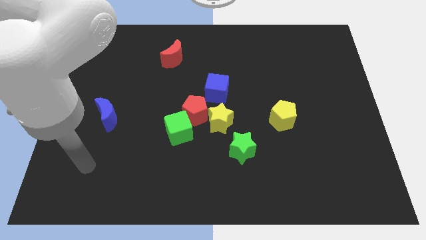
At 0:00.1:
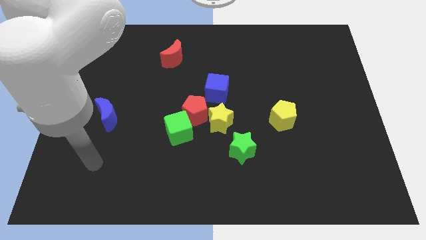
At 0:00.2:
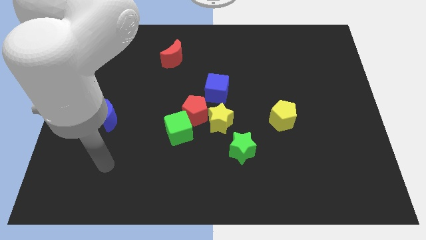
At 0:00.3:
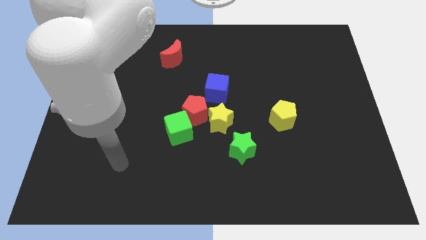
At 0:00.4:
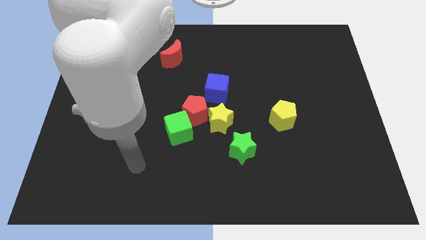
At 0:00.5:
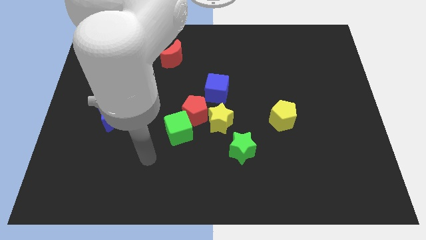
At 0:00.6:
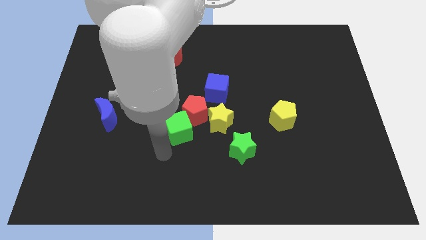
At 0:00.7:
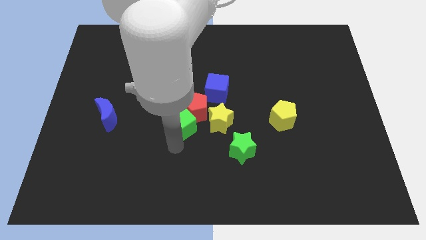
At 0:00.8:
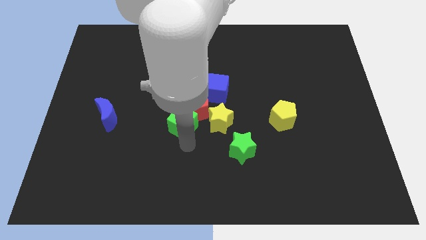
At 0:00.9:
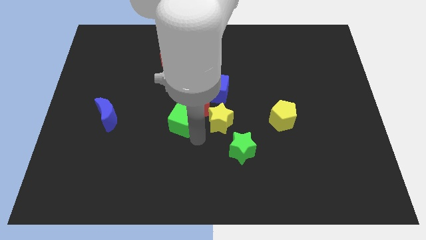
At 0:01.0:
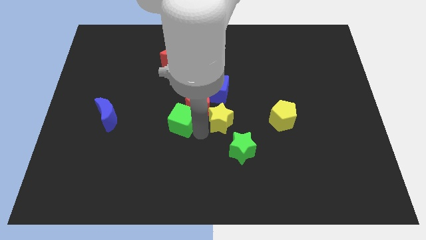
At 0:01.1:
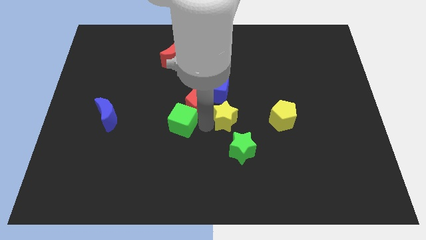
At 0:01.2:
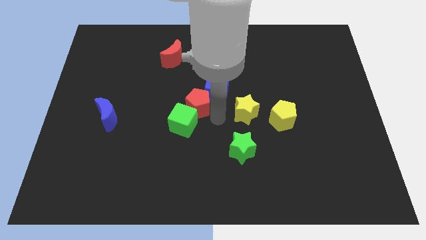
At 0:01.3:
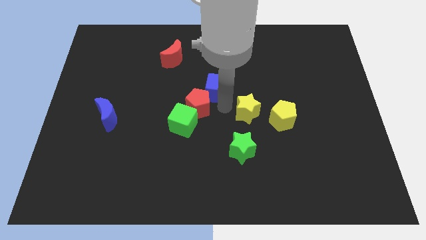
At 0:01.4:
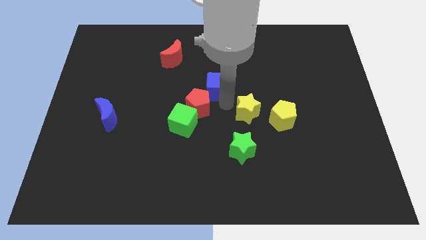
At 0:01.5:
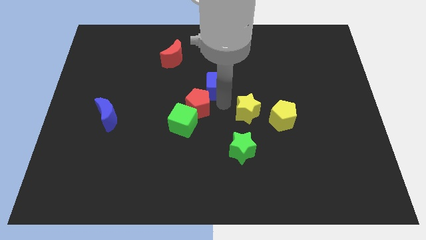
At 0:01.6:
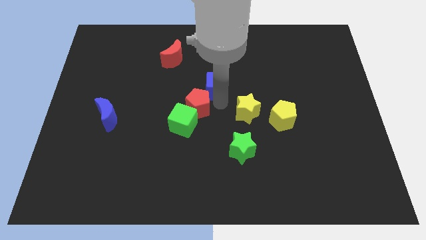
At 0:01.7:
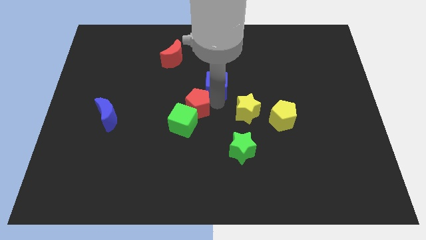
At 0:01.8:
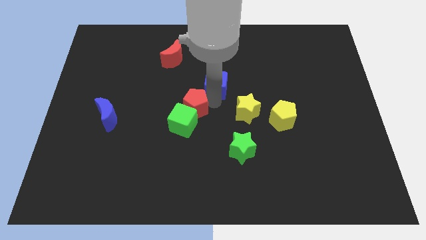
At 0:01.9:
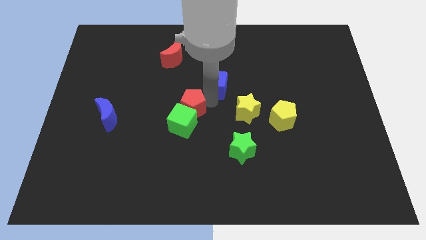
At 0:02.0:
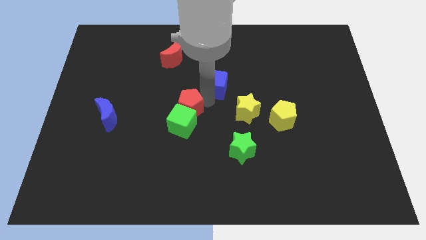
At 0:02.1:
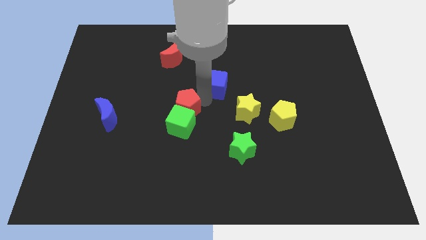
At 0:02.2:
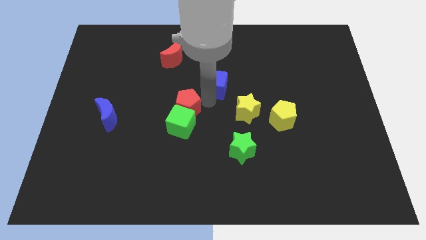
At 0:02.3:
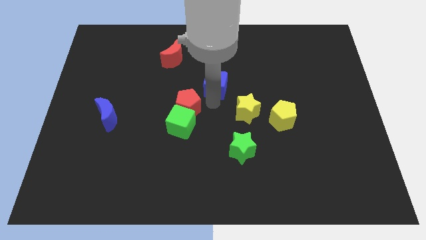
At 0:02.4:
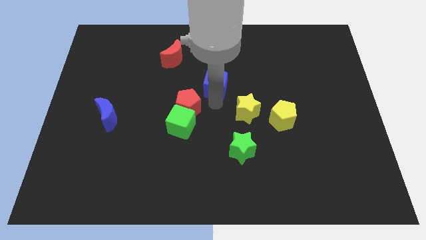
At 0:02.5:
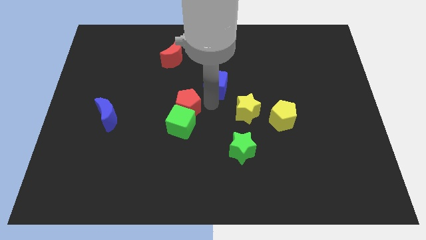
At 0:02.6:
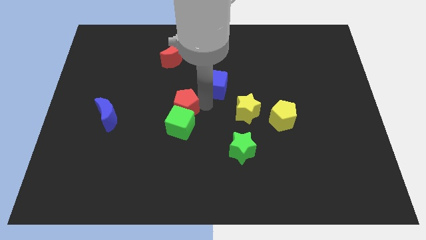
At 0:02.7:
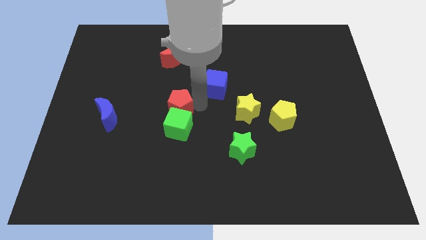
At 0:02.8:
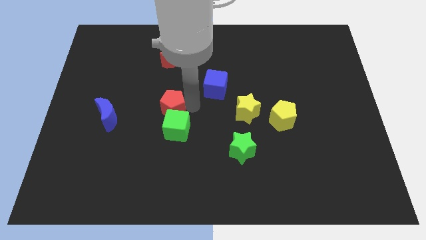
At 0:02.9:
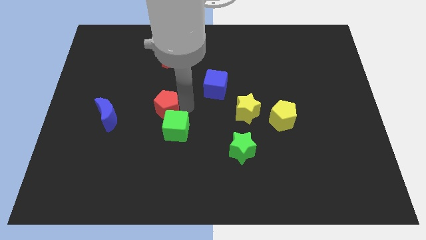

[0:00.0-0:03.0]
pull the red pentagon apart from the green cube, yellow star, and blue cube

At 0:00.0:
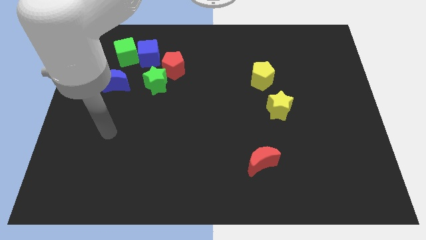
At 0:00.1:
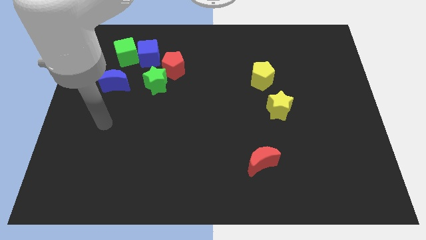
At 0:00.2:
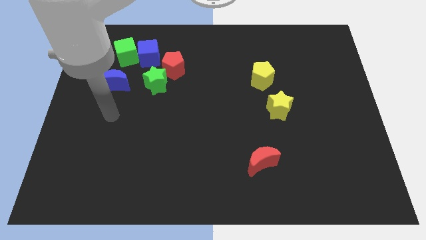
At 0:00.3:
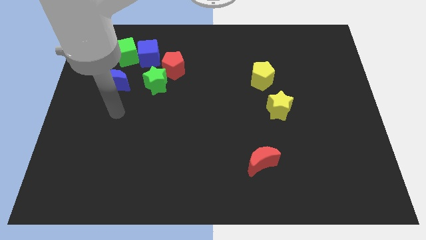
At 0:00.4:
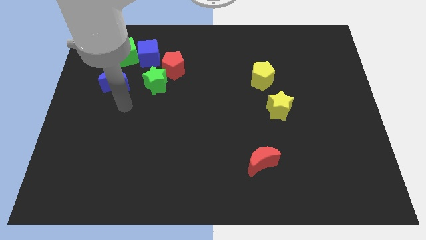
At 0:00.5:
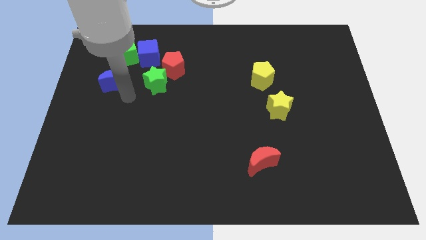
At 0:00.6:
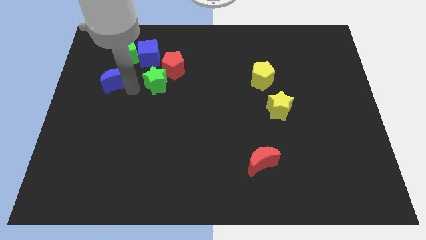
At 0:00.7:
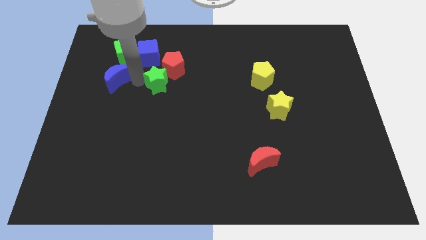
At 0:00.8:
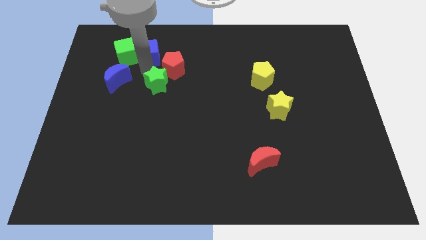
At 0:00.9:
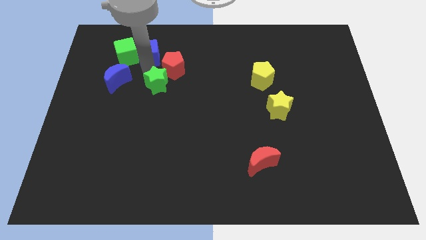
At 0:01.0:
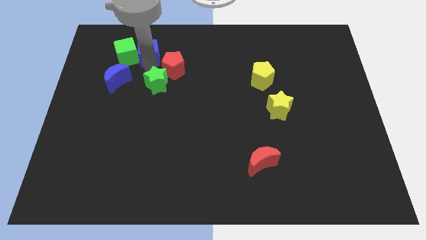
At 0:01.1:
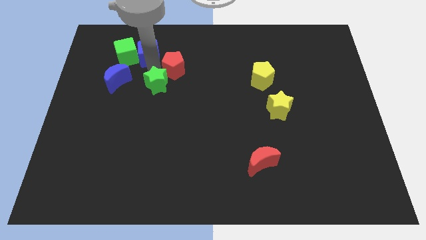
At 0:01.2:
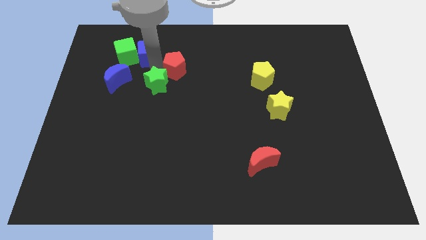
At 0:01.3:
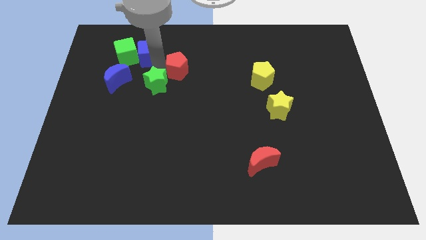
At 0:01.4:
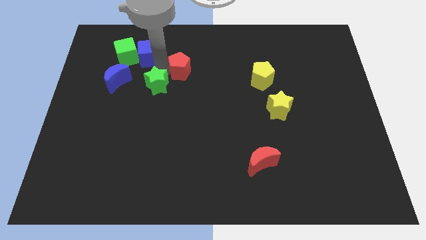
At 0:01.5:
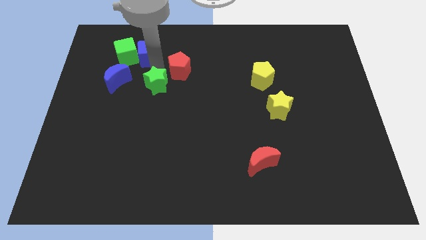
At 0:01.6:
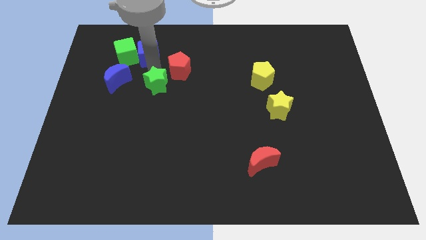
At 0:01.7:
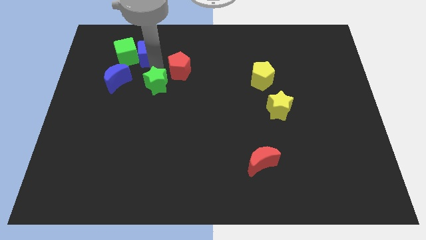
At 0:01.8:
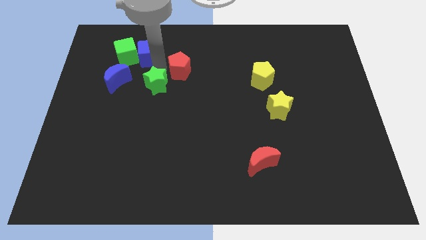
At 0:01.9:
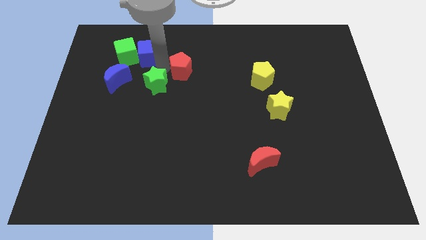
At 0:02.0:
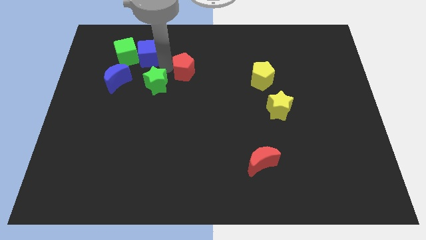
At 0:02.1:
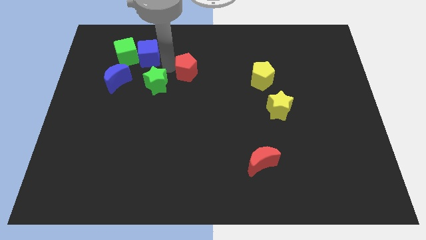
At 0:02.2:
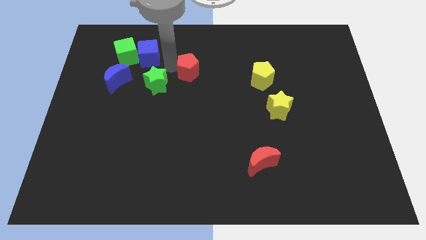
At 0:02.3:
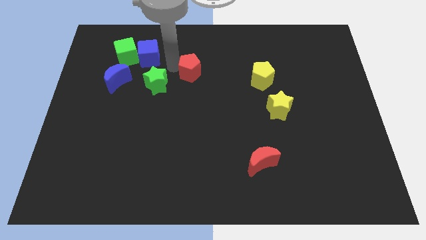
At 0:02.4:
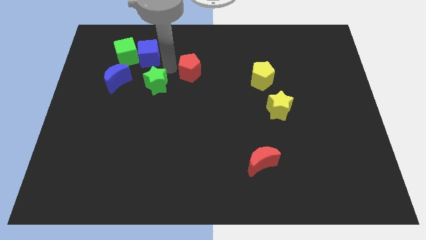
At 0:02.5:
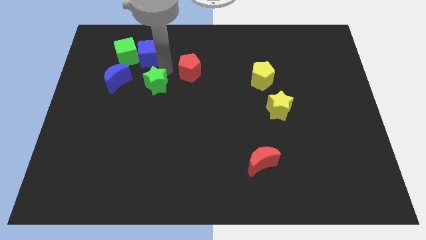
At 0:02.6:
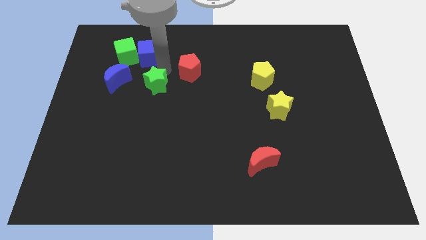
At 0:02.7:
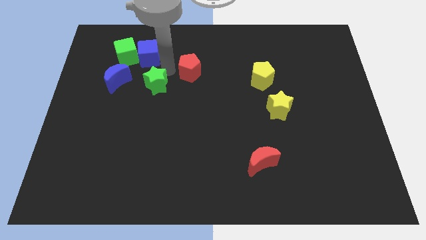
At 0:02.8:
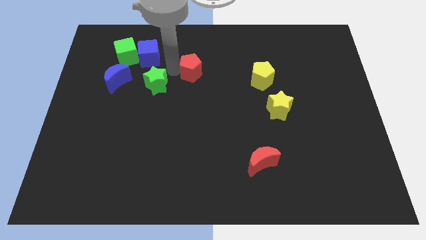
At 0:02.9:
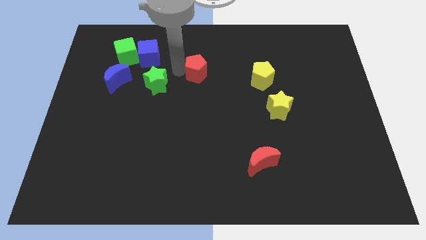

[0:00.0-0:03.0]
move the red pentagon away from the green star and blue cube

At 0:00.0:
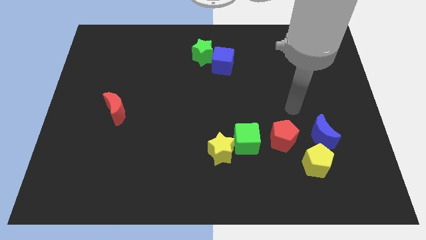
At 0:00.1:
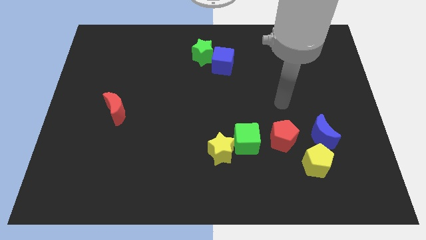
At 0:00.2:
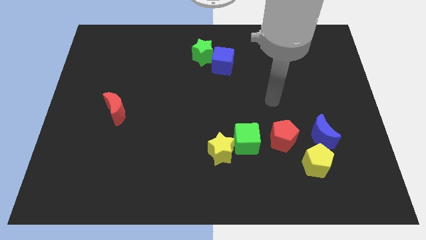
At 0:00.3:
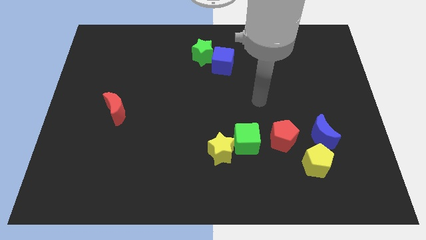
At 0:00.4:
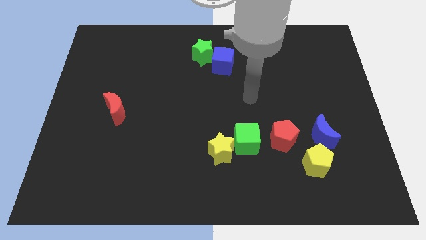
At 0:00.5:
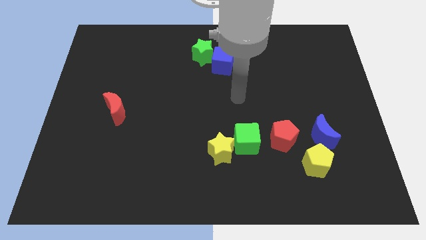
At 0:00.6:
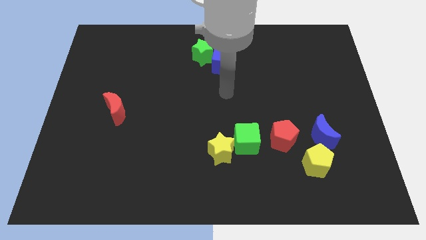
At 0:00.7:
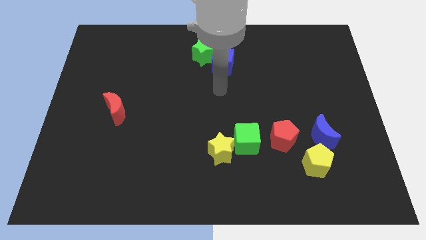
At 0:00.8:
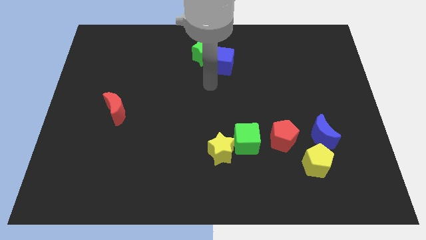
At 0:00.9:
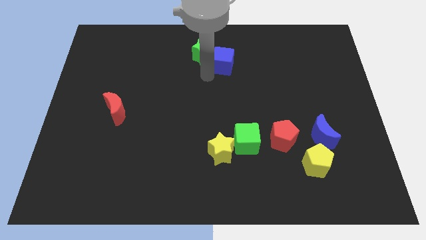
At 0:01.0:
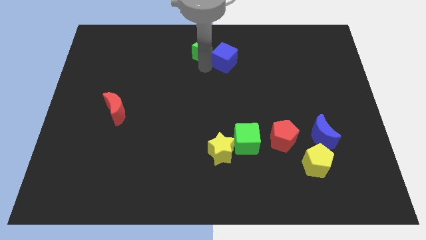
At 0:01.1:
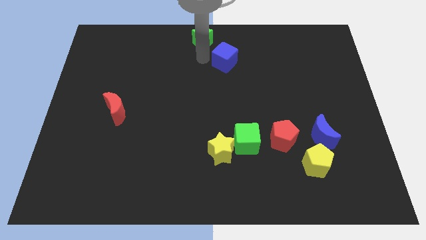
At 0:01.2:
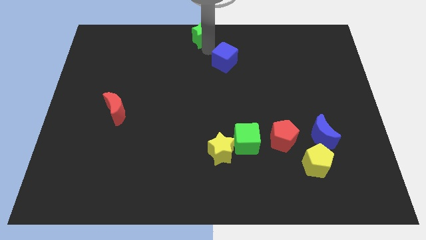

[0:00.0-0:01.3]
move the blue cube away from the green star

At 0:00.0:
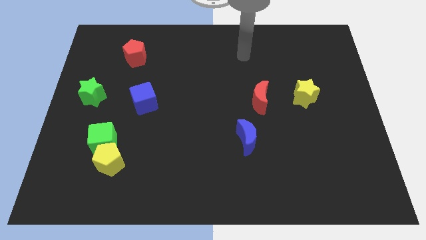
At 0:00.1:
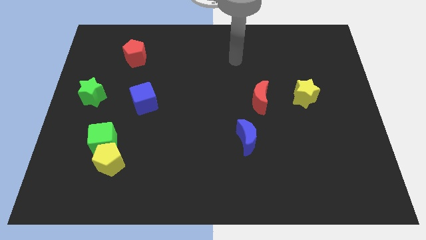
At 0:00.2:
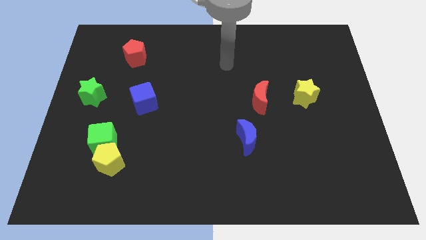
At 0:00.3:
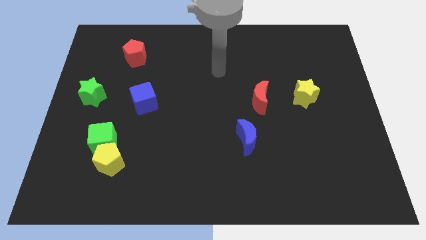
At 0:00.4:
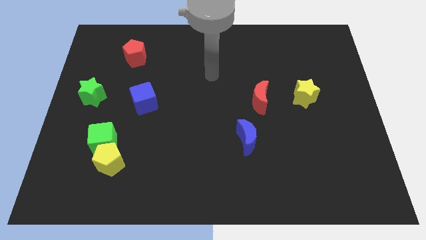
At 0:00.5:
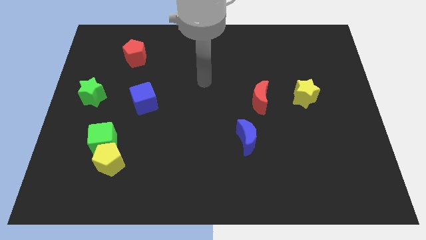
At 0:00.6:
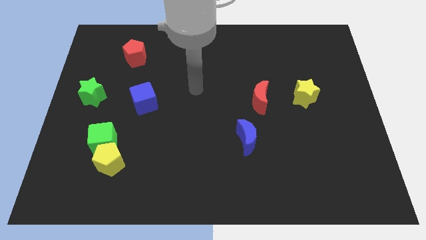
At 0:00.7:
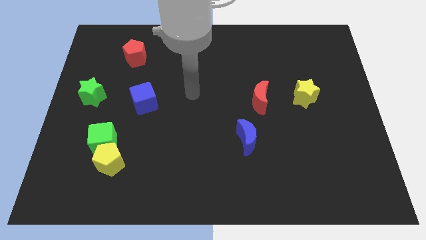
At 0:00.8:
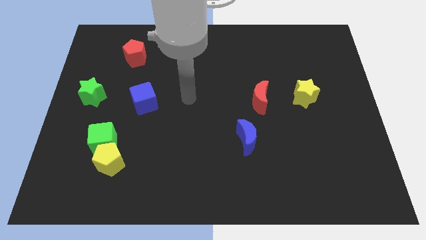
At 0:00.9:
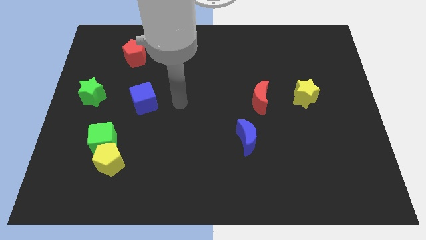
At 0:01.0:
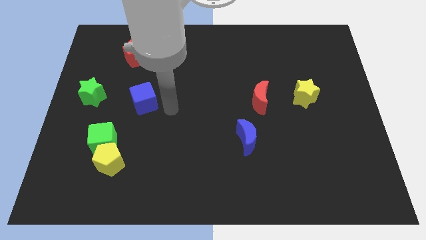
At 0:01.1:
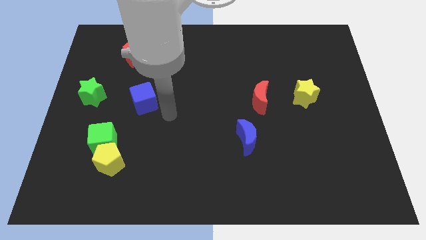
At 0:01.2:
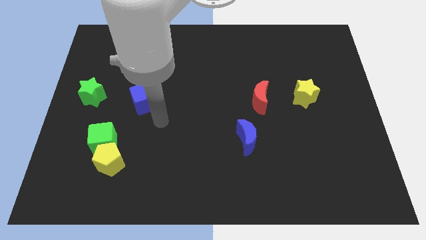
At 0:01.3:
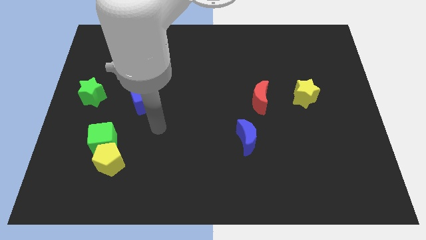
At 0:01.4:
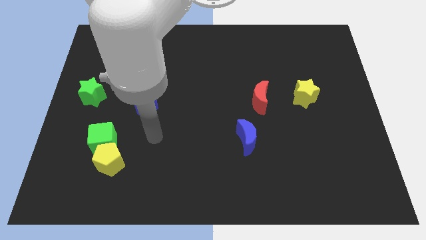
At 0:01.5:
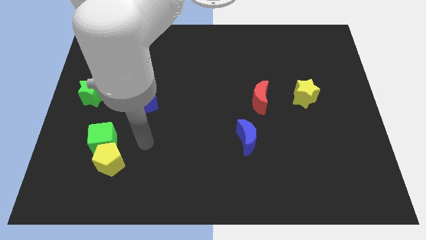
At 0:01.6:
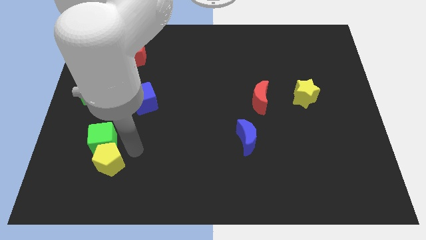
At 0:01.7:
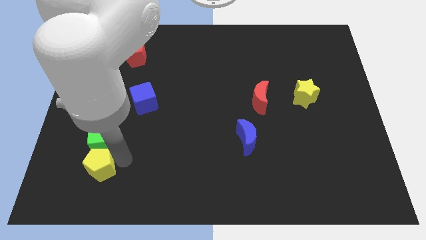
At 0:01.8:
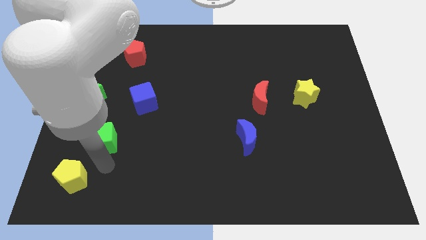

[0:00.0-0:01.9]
separate the green cube from the yellow pentagon

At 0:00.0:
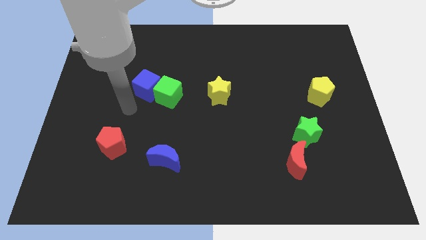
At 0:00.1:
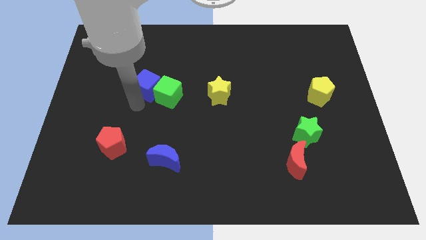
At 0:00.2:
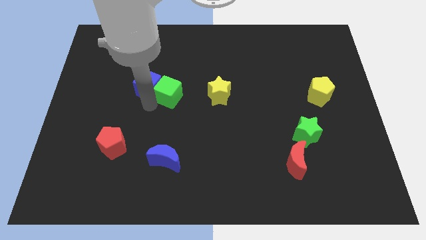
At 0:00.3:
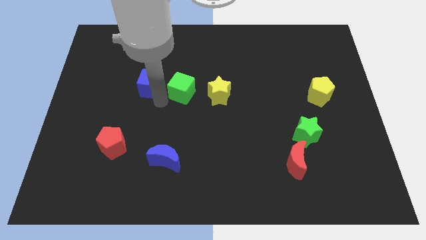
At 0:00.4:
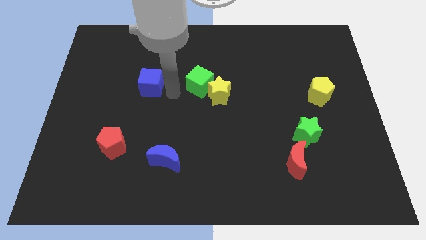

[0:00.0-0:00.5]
separate the blue cube from the green cube
